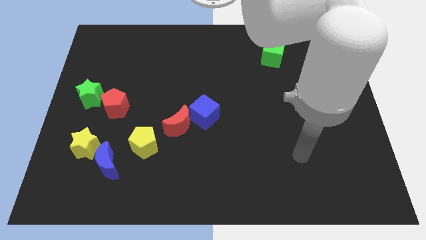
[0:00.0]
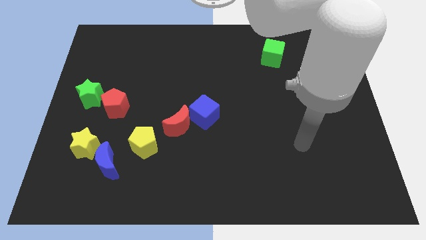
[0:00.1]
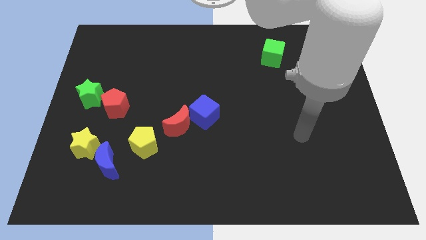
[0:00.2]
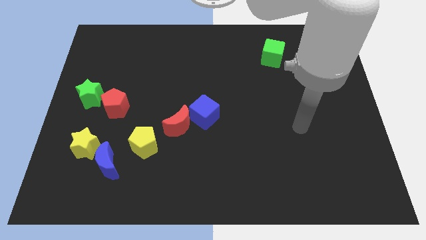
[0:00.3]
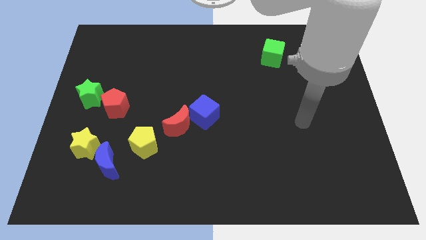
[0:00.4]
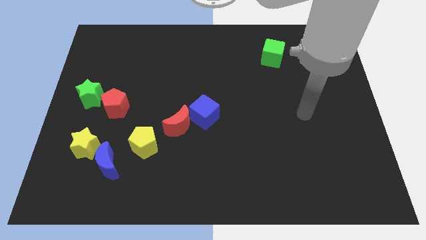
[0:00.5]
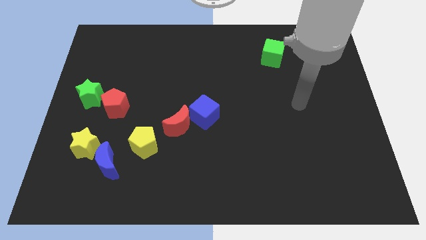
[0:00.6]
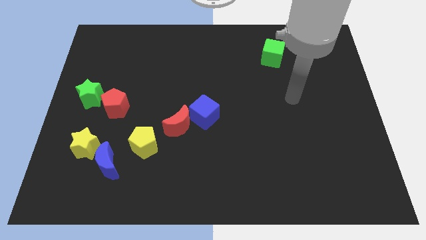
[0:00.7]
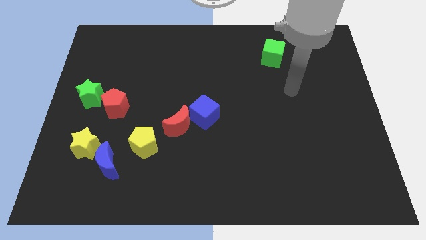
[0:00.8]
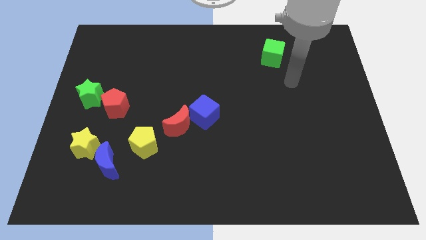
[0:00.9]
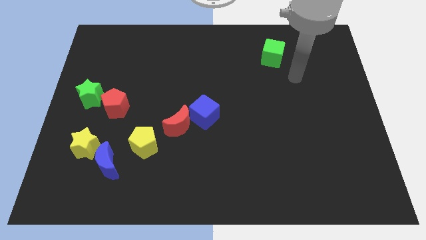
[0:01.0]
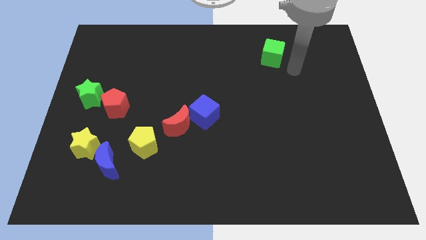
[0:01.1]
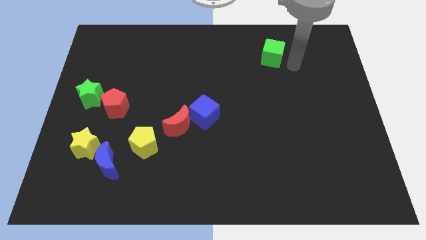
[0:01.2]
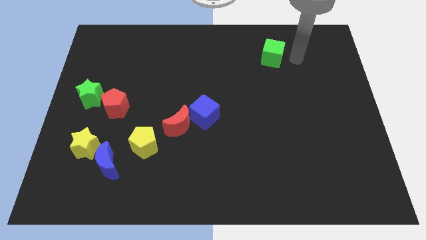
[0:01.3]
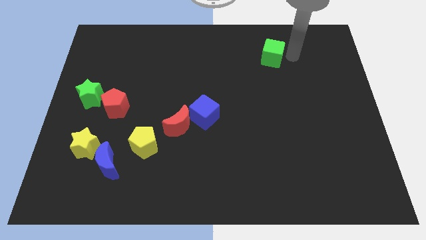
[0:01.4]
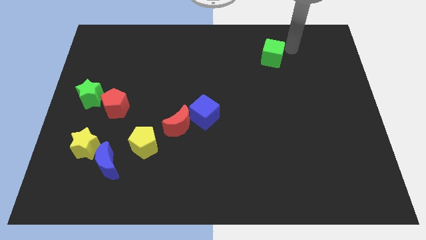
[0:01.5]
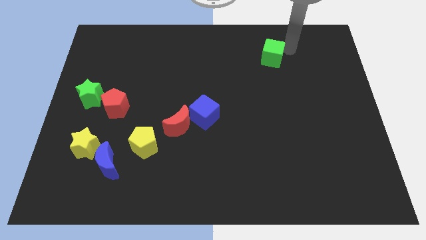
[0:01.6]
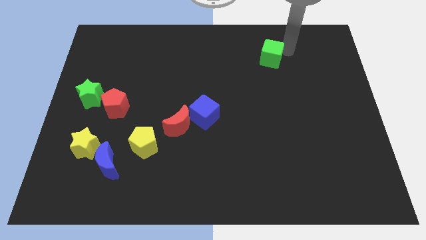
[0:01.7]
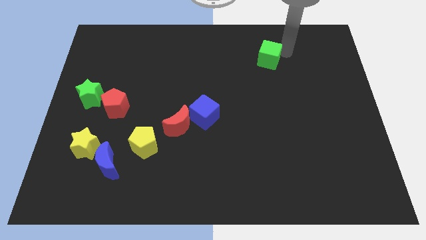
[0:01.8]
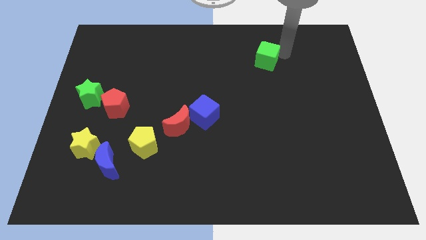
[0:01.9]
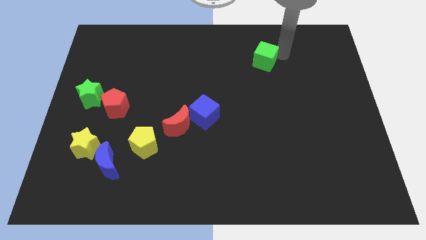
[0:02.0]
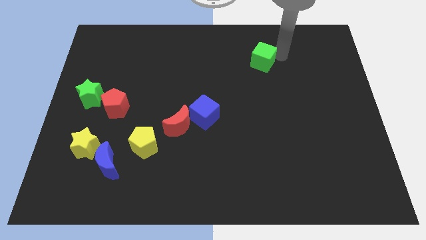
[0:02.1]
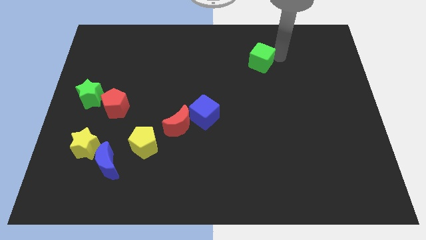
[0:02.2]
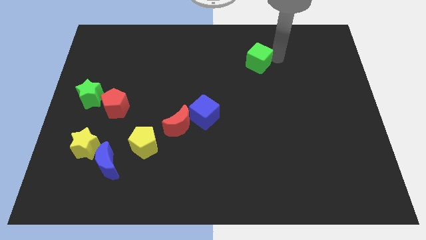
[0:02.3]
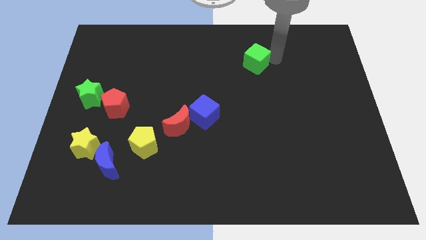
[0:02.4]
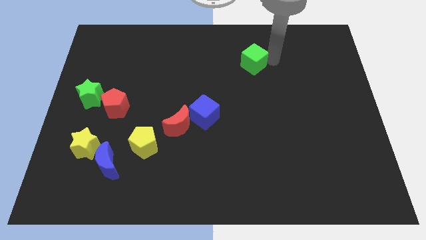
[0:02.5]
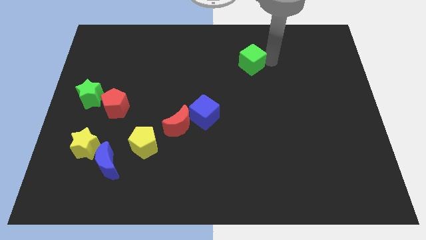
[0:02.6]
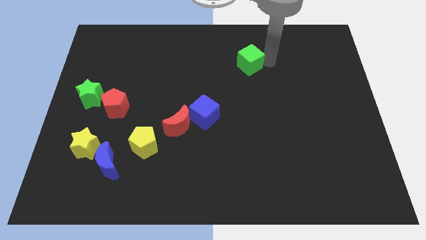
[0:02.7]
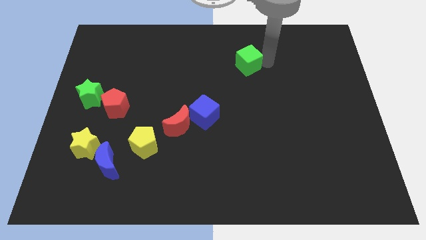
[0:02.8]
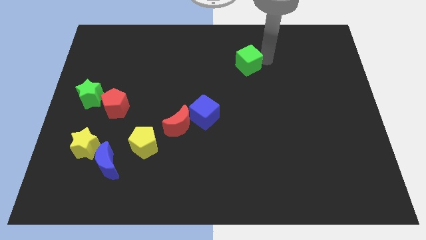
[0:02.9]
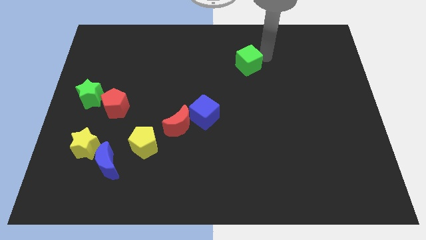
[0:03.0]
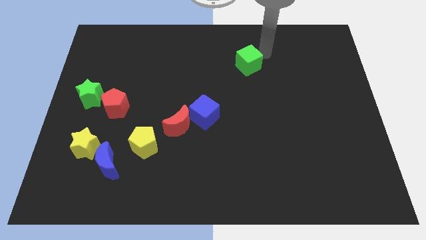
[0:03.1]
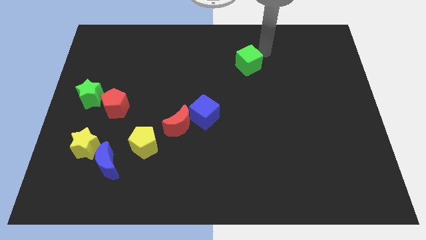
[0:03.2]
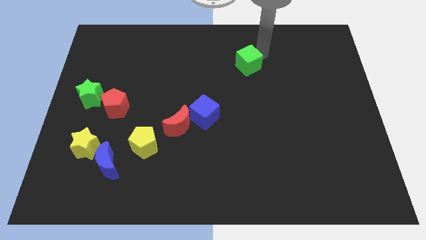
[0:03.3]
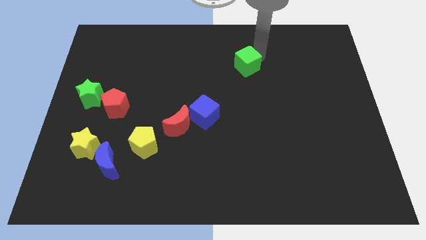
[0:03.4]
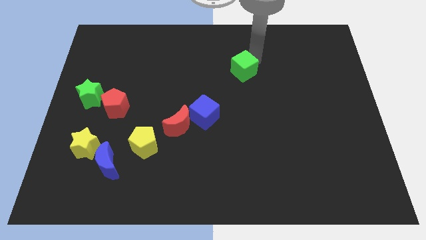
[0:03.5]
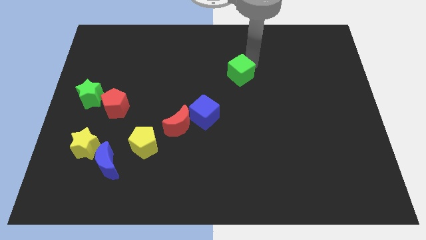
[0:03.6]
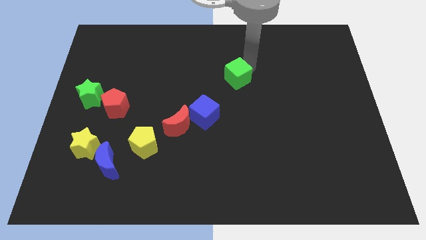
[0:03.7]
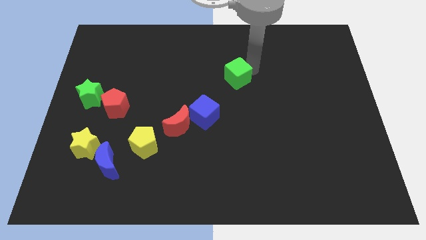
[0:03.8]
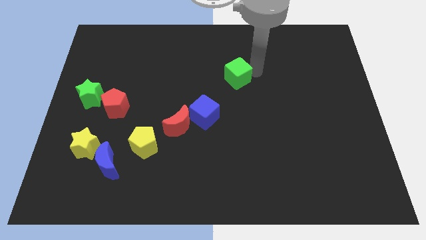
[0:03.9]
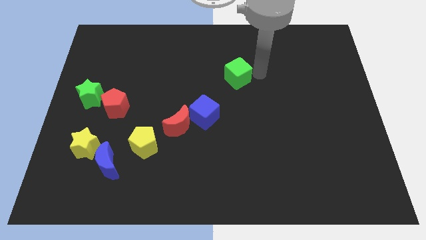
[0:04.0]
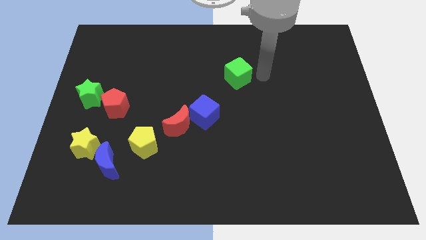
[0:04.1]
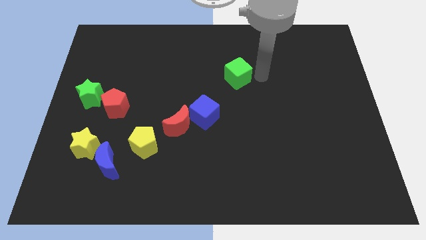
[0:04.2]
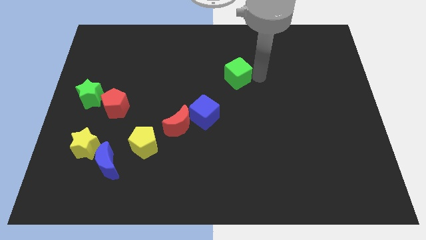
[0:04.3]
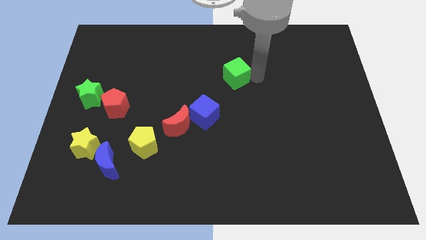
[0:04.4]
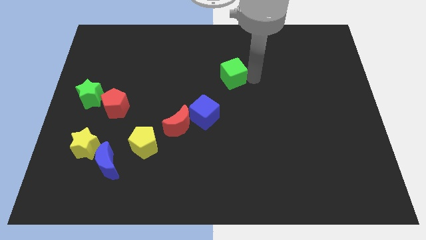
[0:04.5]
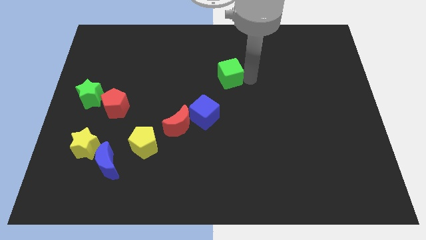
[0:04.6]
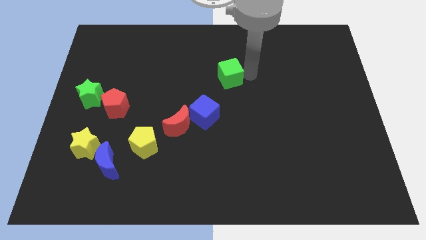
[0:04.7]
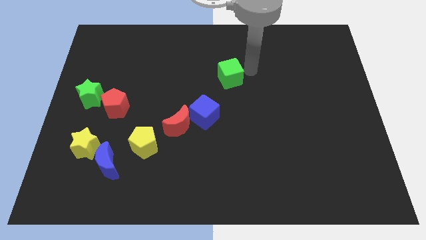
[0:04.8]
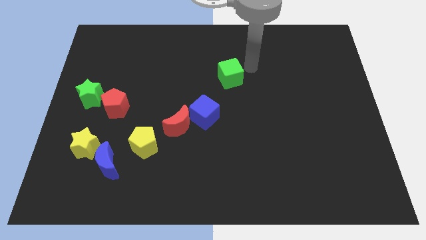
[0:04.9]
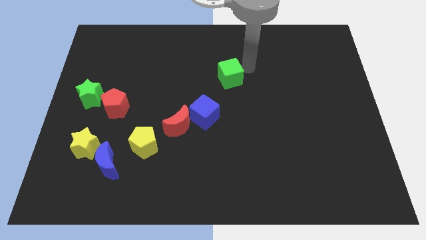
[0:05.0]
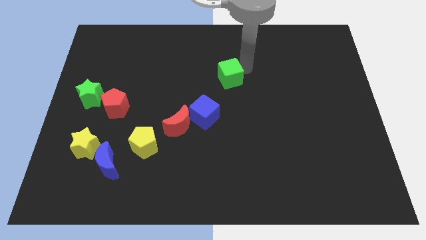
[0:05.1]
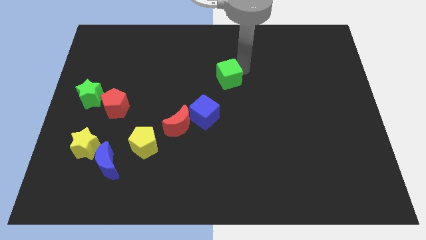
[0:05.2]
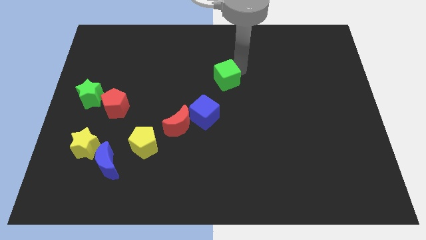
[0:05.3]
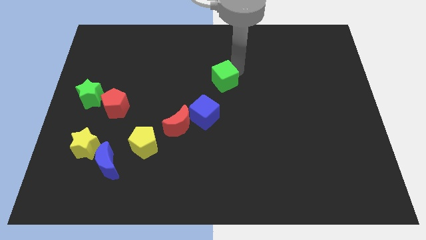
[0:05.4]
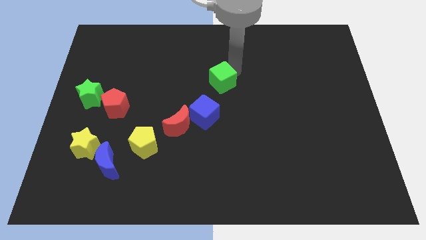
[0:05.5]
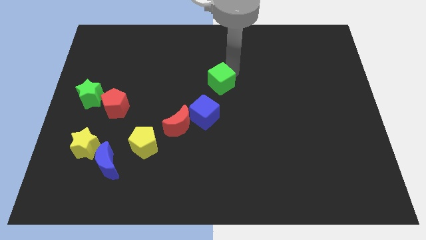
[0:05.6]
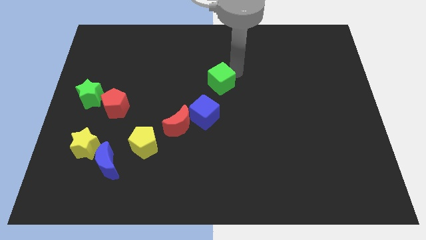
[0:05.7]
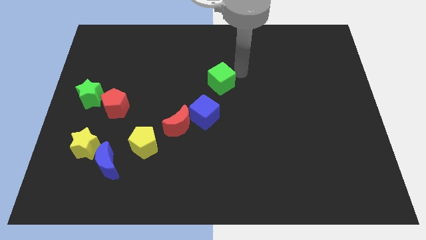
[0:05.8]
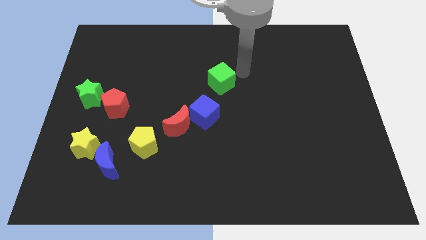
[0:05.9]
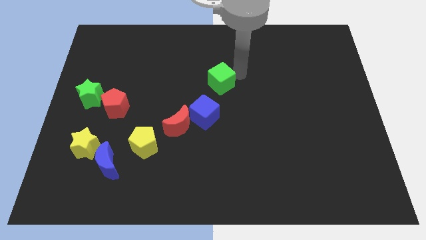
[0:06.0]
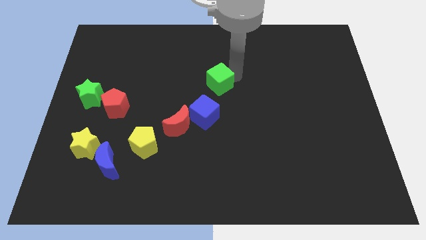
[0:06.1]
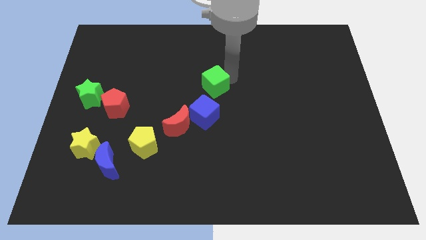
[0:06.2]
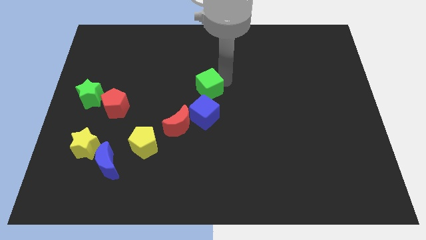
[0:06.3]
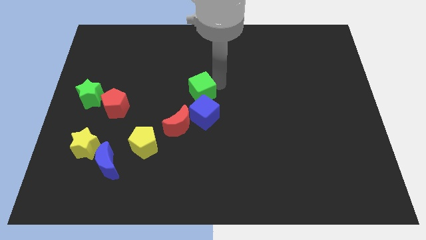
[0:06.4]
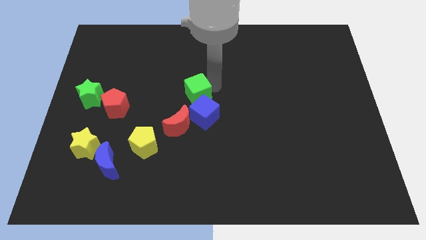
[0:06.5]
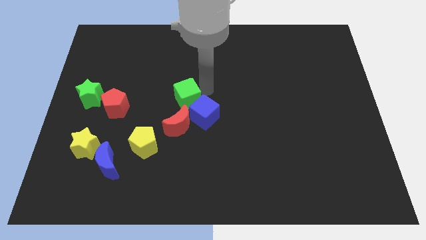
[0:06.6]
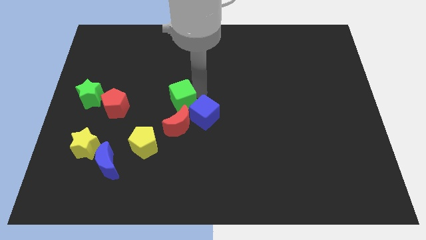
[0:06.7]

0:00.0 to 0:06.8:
move the green cube to the right of the red pentagon

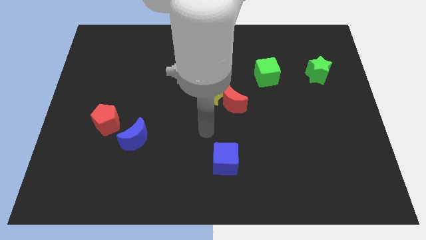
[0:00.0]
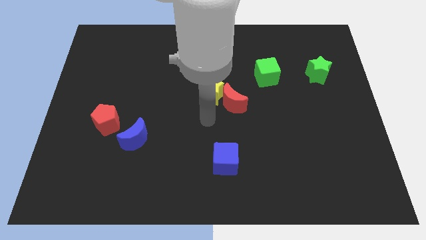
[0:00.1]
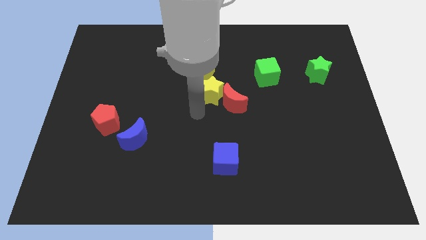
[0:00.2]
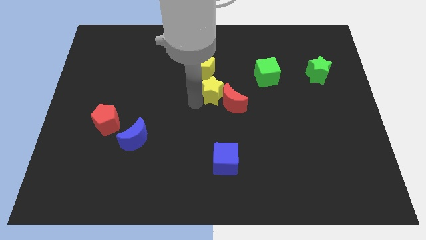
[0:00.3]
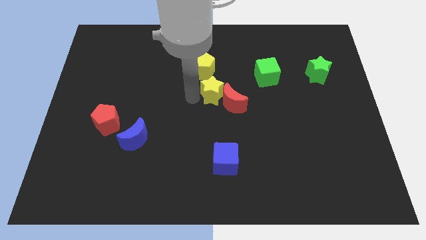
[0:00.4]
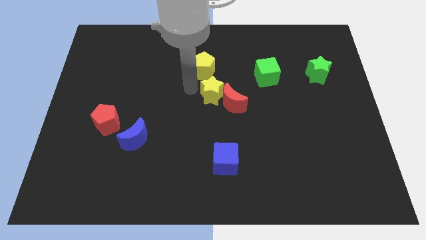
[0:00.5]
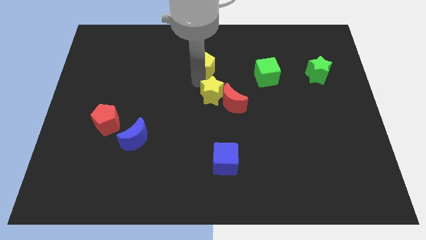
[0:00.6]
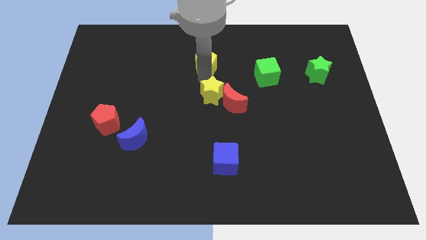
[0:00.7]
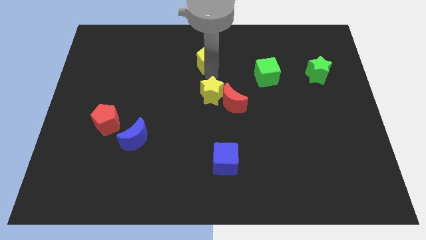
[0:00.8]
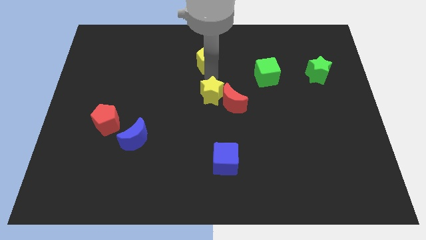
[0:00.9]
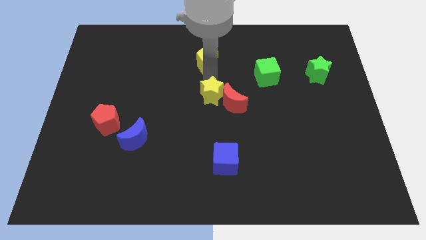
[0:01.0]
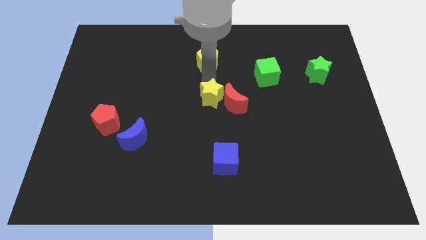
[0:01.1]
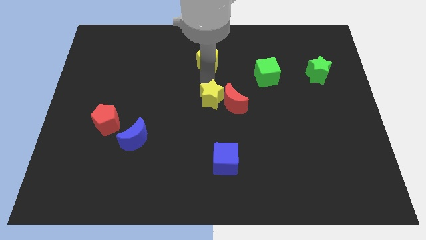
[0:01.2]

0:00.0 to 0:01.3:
move the yellow star diagonally down and to the left of the red moon
